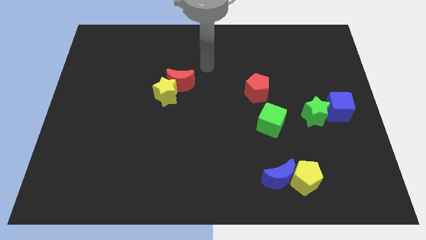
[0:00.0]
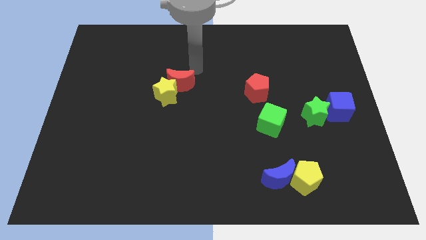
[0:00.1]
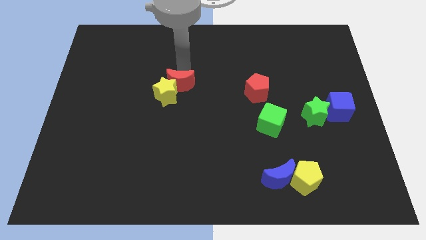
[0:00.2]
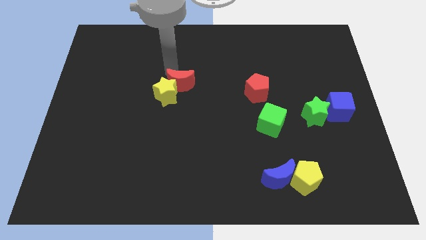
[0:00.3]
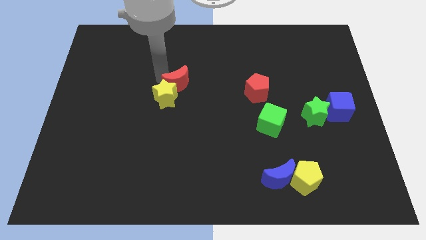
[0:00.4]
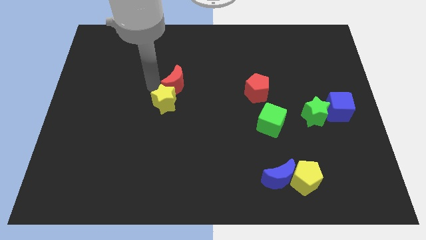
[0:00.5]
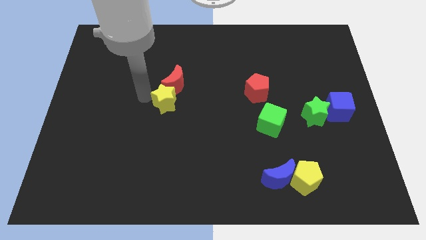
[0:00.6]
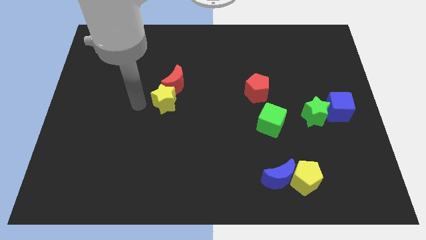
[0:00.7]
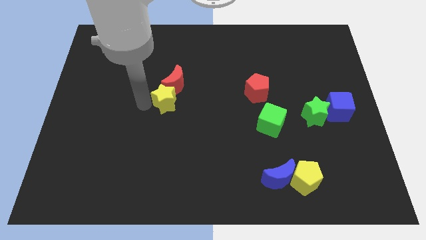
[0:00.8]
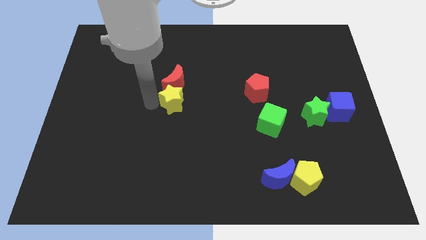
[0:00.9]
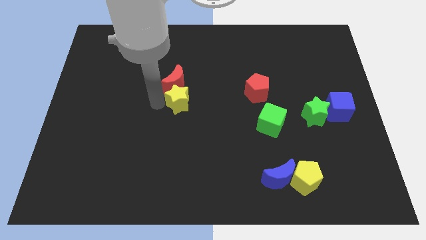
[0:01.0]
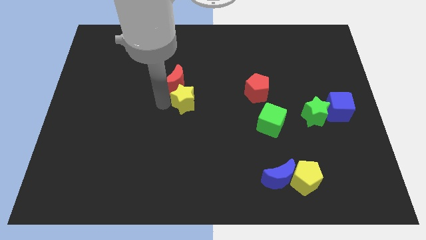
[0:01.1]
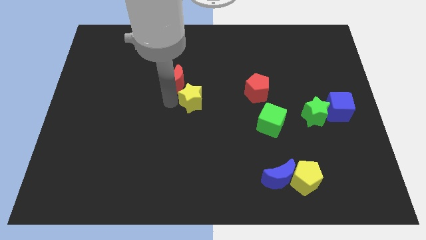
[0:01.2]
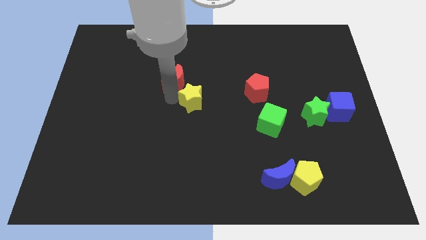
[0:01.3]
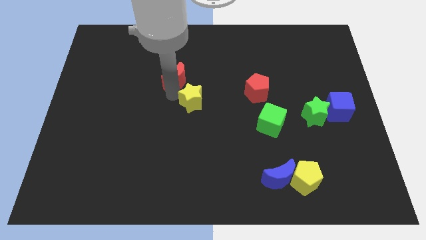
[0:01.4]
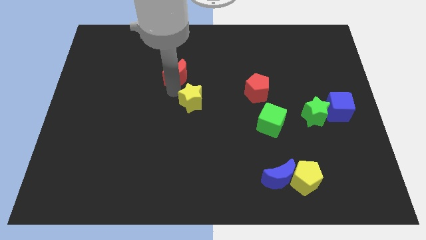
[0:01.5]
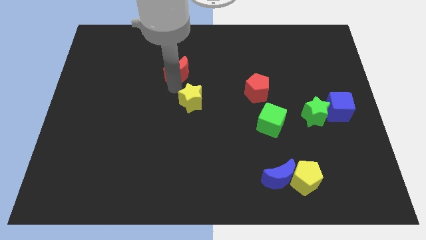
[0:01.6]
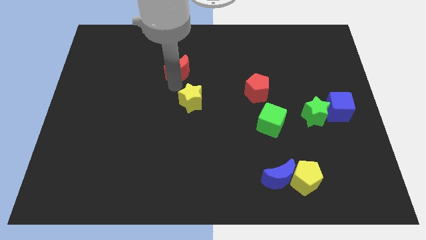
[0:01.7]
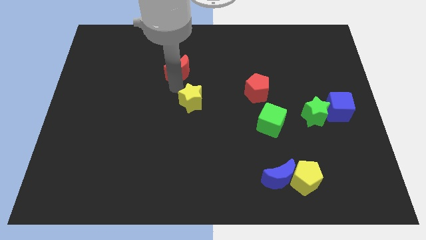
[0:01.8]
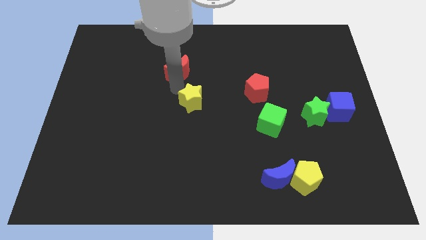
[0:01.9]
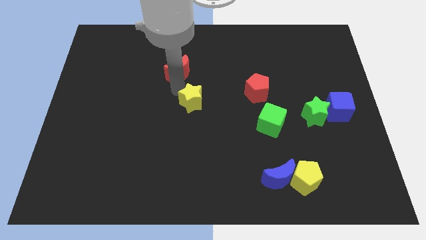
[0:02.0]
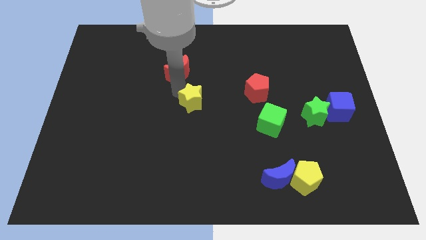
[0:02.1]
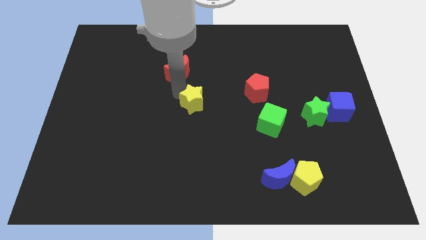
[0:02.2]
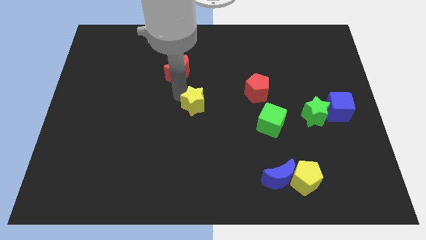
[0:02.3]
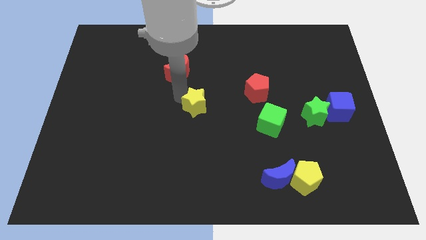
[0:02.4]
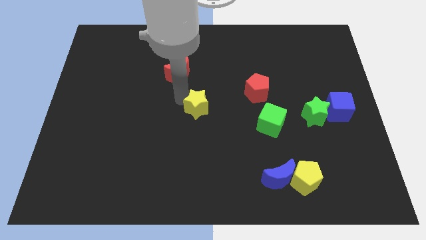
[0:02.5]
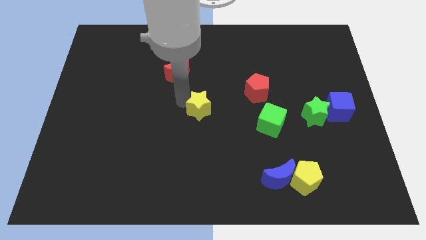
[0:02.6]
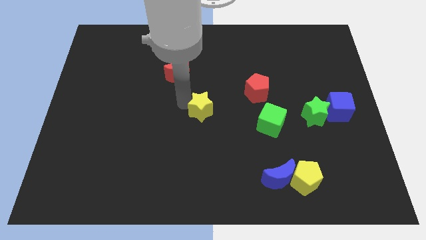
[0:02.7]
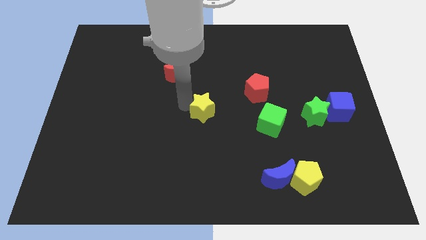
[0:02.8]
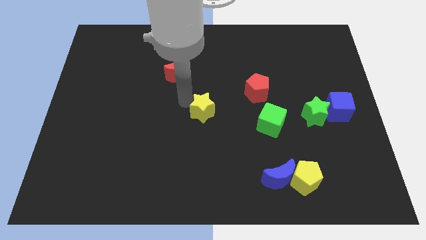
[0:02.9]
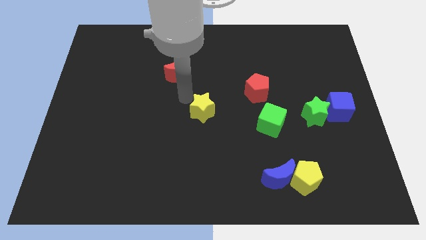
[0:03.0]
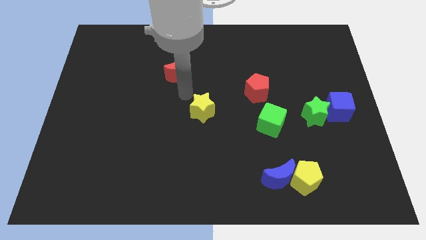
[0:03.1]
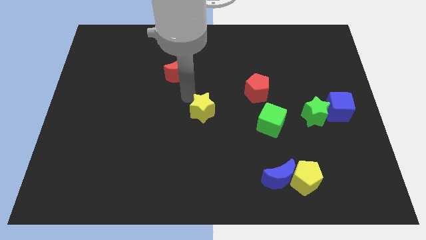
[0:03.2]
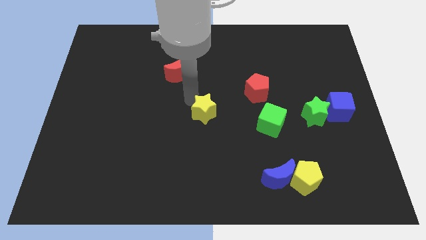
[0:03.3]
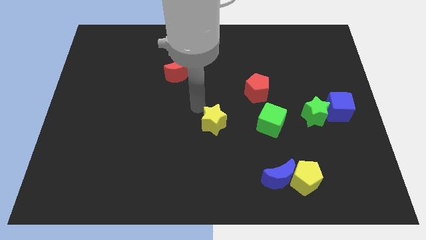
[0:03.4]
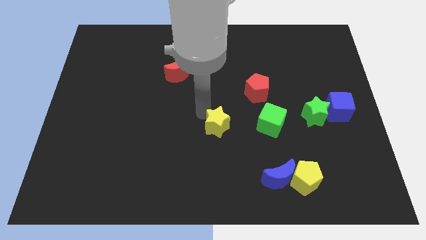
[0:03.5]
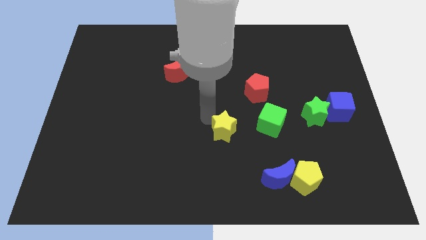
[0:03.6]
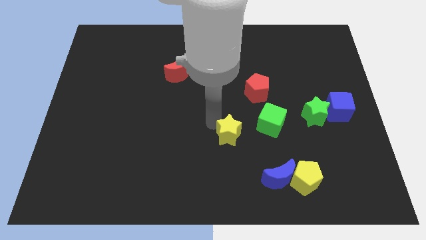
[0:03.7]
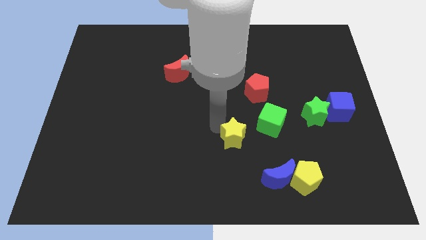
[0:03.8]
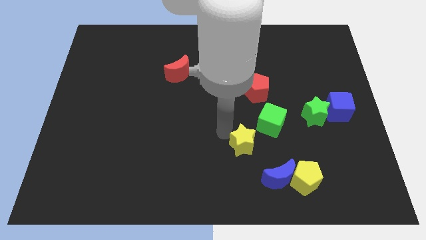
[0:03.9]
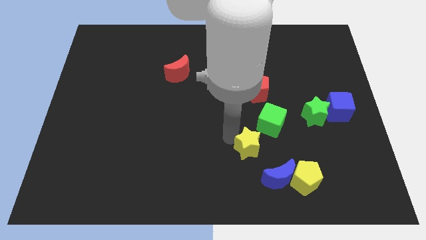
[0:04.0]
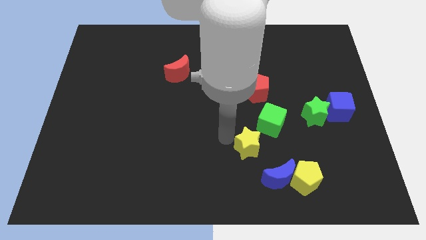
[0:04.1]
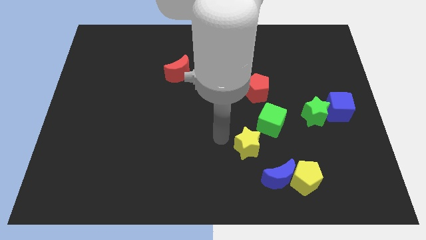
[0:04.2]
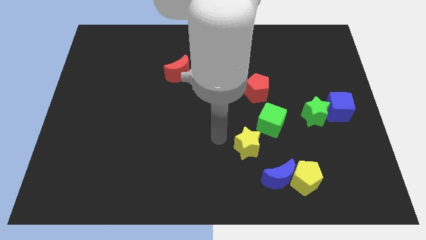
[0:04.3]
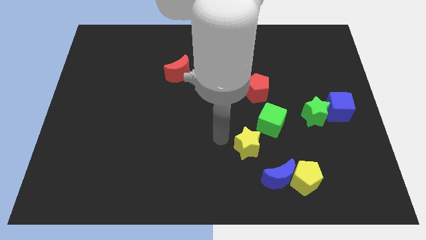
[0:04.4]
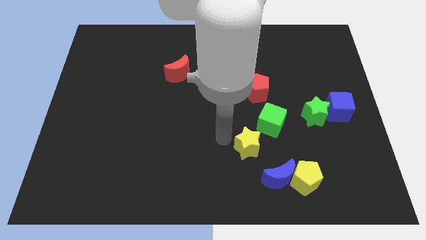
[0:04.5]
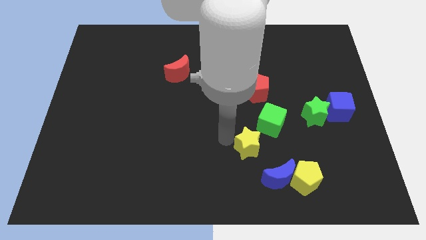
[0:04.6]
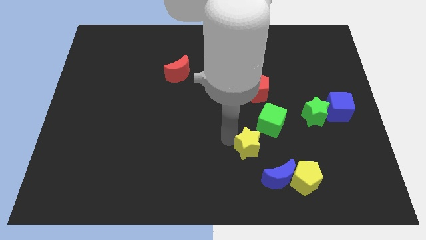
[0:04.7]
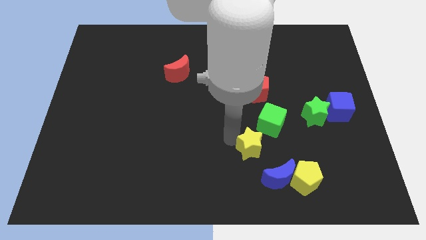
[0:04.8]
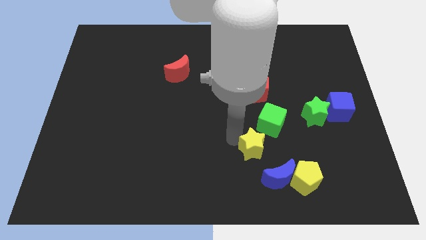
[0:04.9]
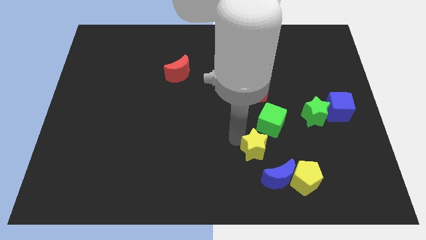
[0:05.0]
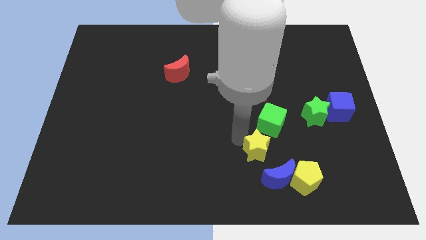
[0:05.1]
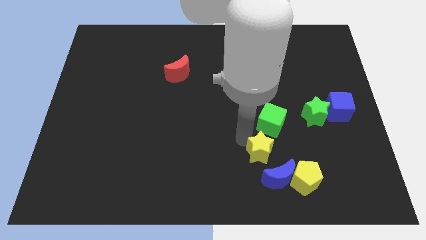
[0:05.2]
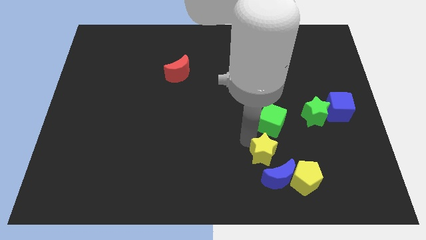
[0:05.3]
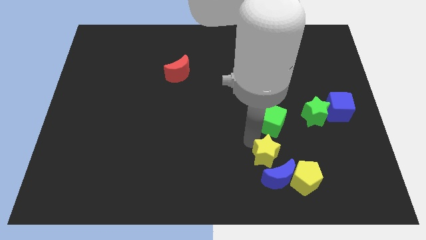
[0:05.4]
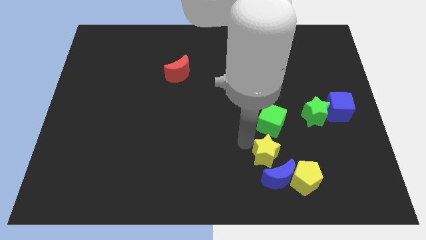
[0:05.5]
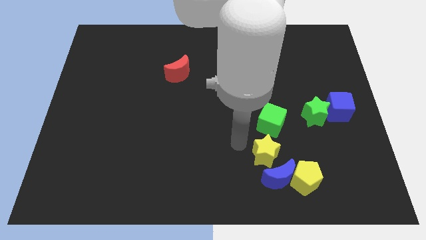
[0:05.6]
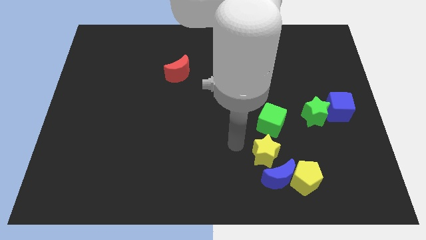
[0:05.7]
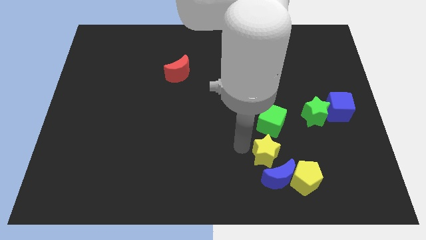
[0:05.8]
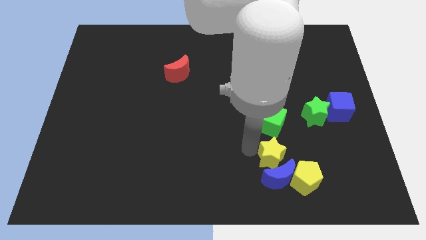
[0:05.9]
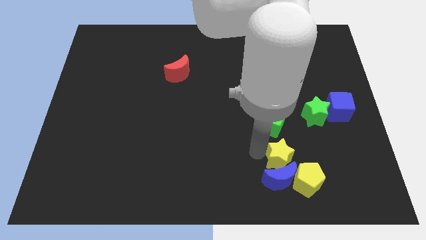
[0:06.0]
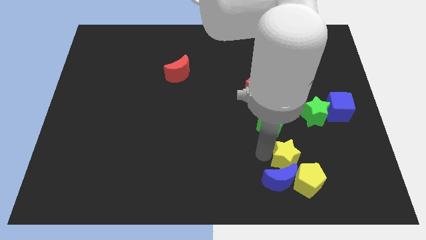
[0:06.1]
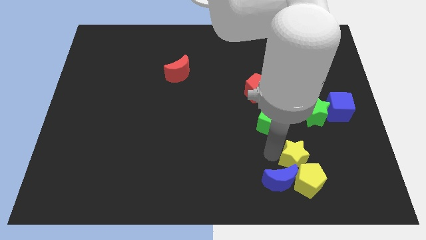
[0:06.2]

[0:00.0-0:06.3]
slide the yellow star towards the yellow pentagon

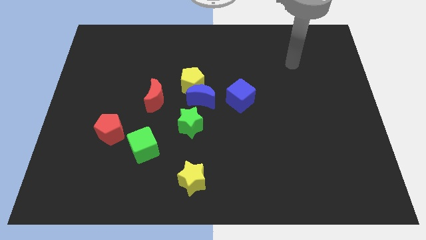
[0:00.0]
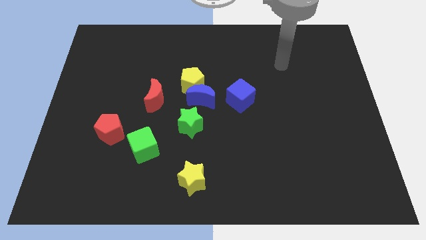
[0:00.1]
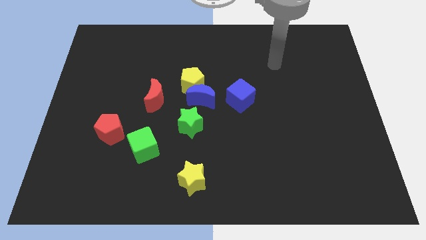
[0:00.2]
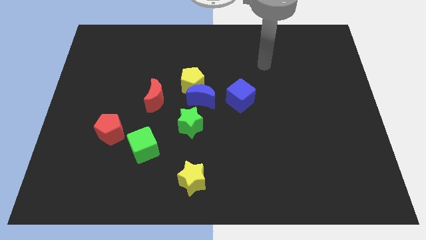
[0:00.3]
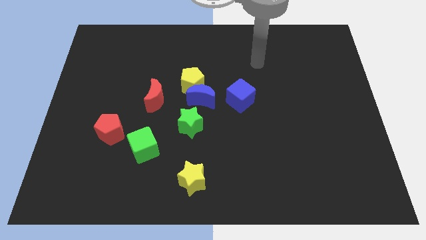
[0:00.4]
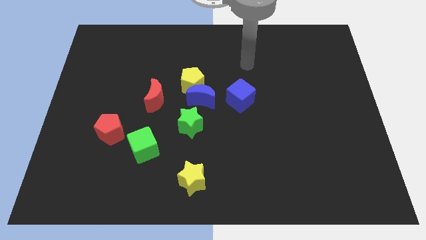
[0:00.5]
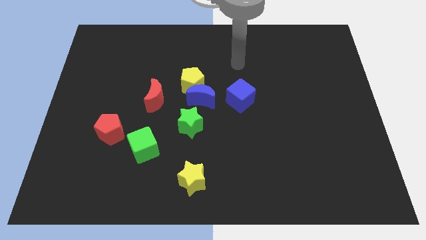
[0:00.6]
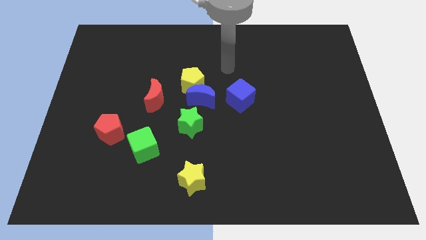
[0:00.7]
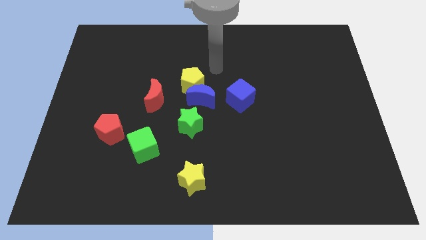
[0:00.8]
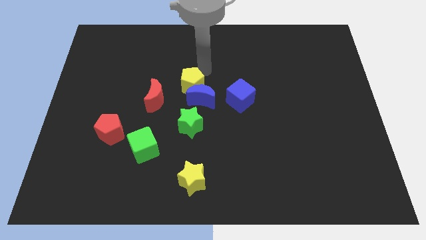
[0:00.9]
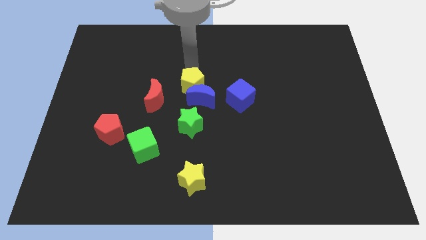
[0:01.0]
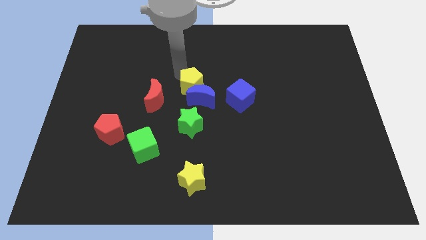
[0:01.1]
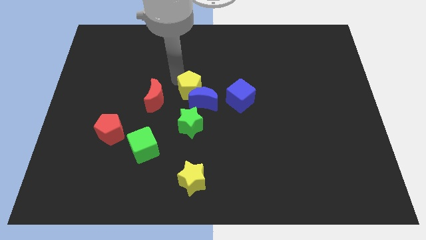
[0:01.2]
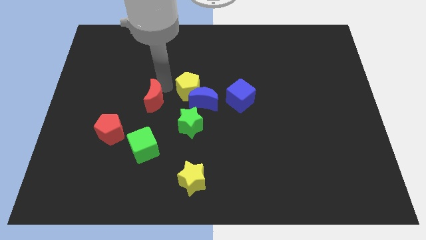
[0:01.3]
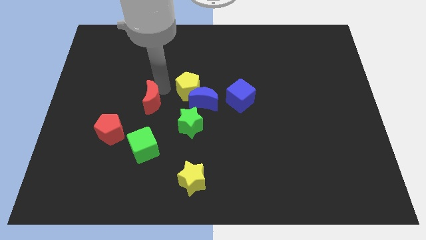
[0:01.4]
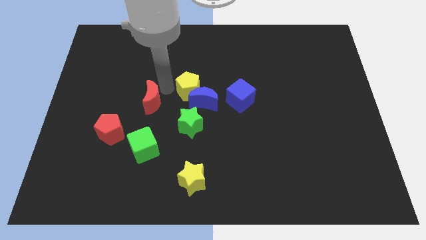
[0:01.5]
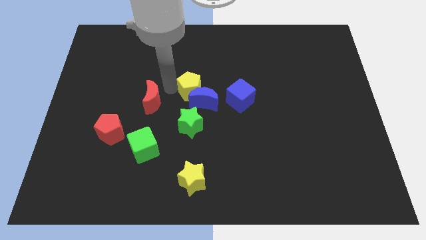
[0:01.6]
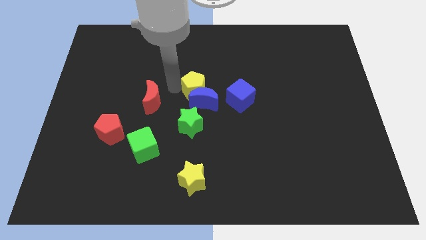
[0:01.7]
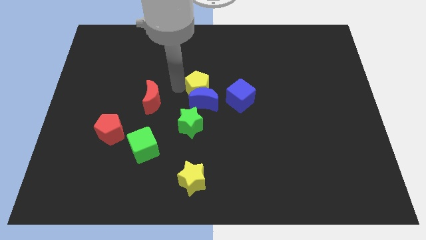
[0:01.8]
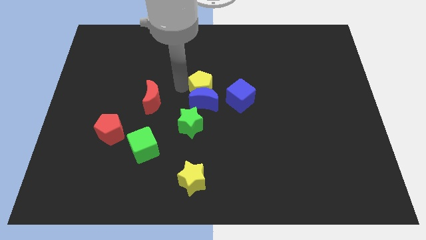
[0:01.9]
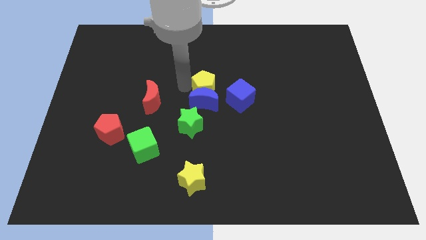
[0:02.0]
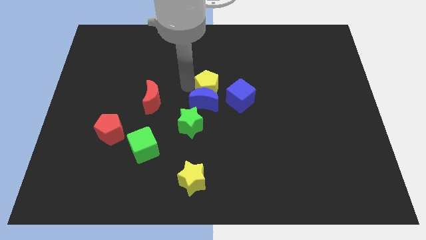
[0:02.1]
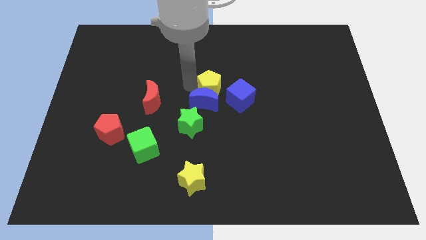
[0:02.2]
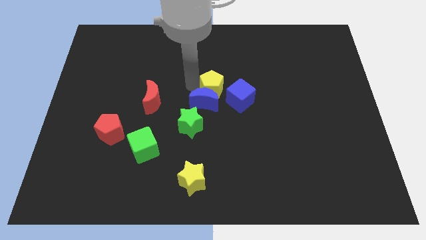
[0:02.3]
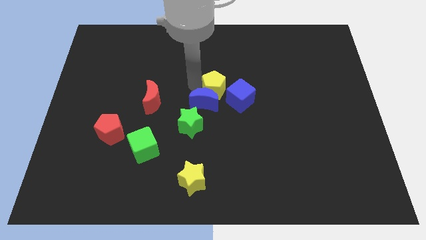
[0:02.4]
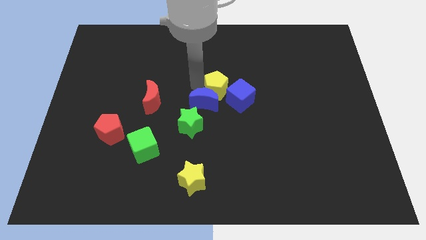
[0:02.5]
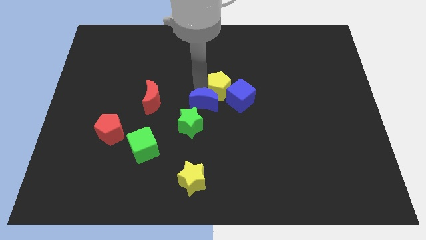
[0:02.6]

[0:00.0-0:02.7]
push the yellow pentagon close to the blue cube
